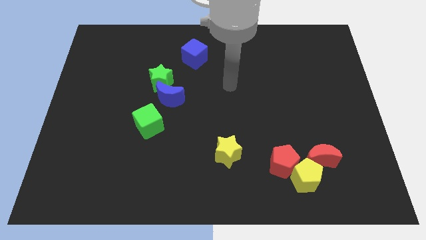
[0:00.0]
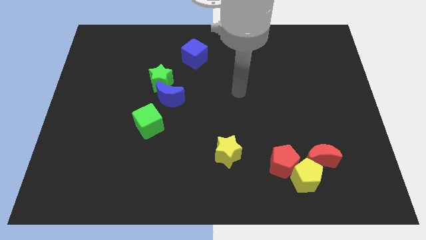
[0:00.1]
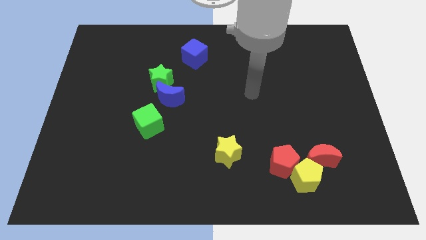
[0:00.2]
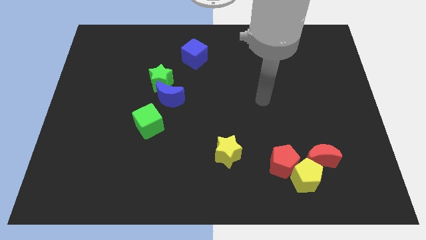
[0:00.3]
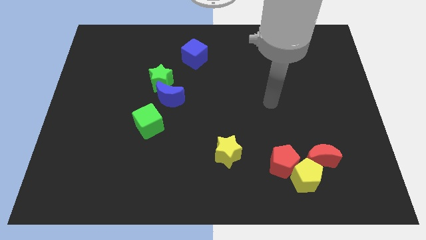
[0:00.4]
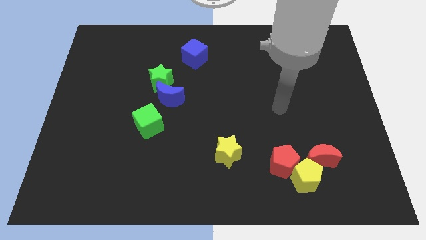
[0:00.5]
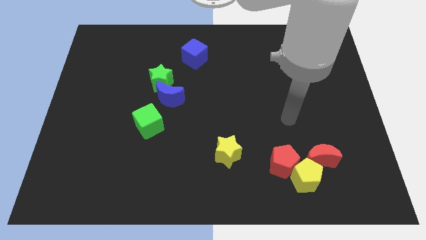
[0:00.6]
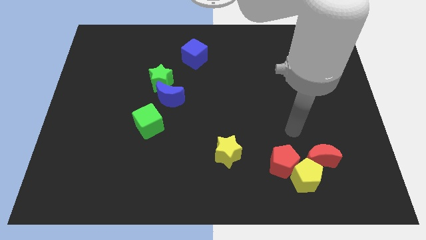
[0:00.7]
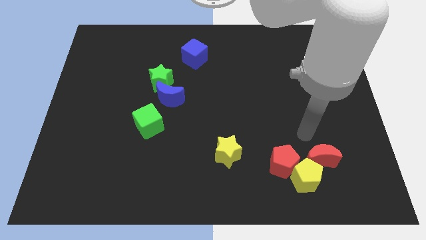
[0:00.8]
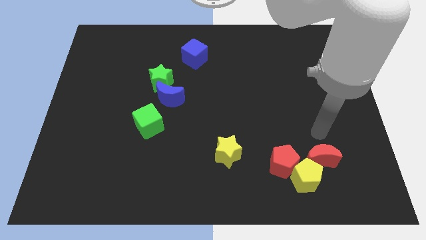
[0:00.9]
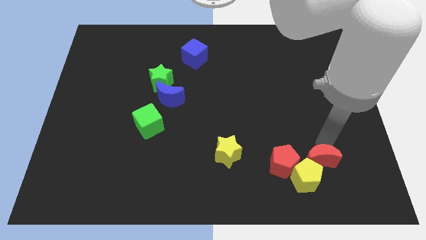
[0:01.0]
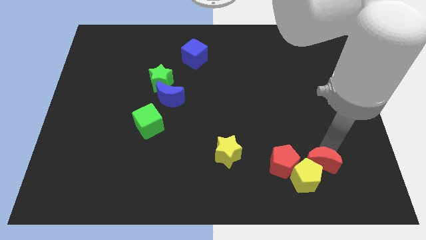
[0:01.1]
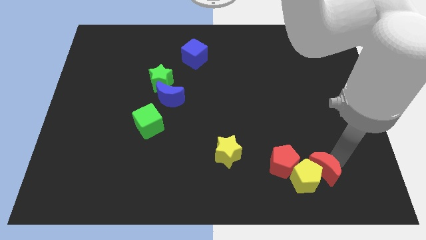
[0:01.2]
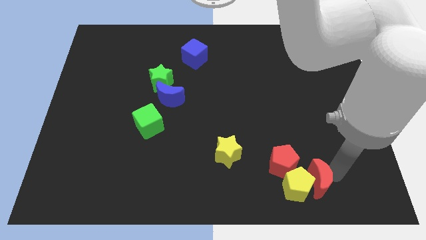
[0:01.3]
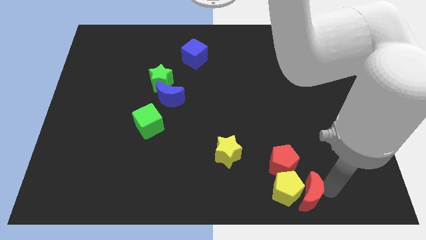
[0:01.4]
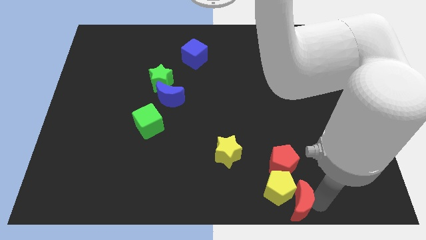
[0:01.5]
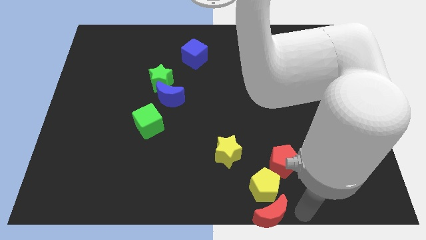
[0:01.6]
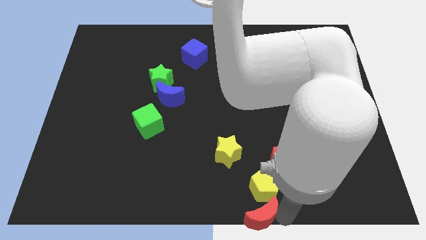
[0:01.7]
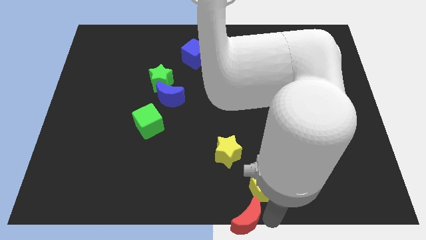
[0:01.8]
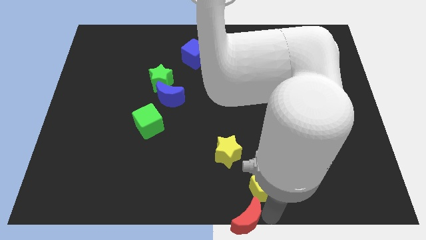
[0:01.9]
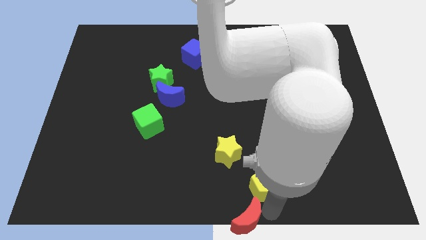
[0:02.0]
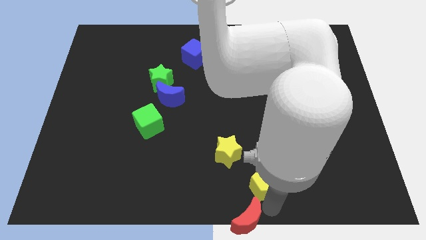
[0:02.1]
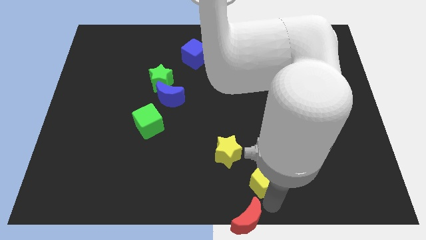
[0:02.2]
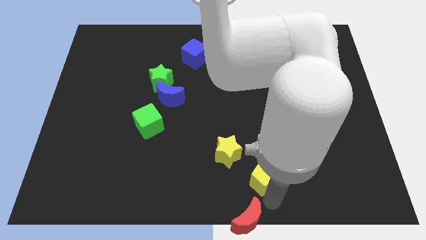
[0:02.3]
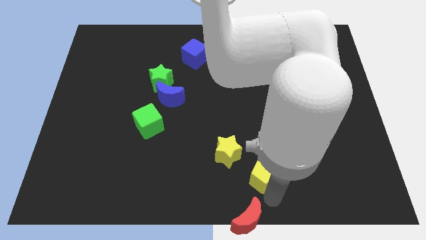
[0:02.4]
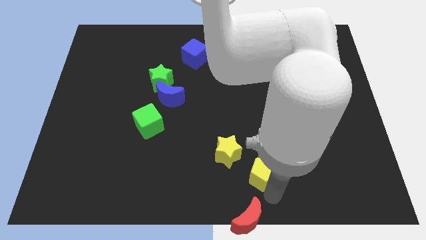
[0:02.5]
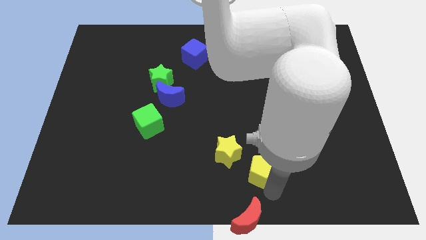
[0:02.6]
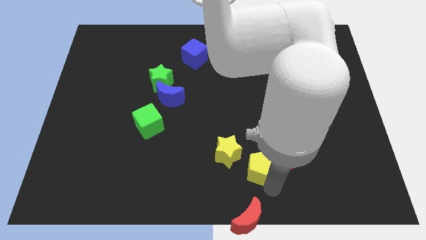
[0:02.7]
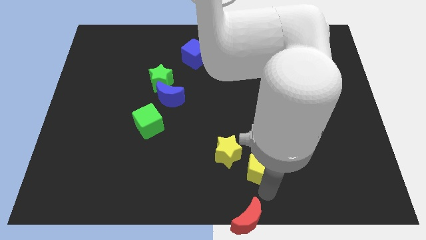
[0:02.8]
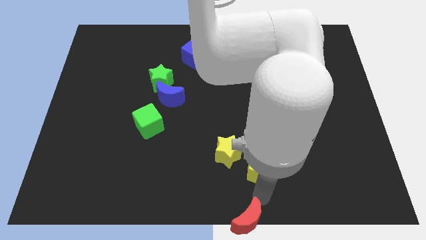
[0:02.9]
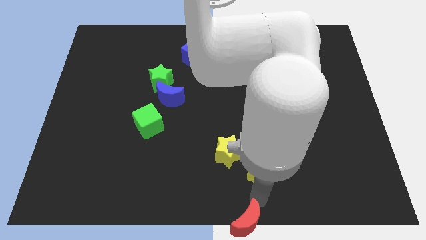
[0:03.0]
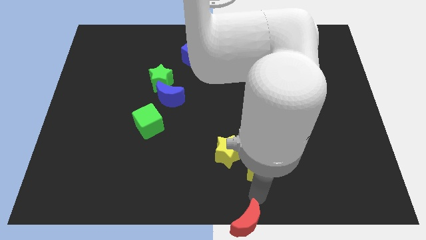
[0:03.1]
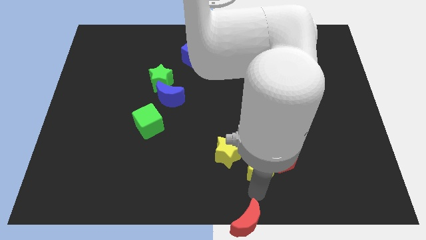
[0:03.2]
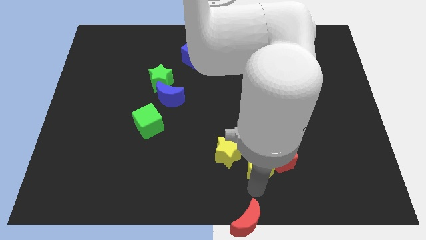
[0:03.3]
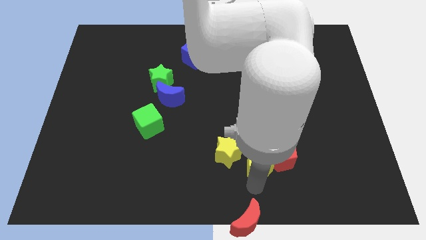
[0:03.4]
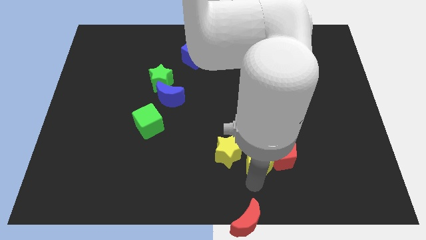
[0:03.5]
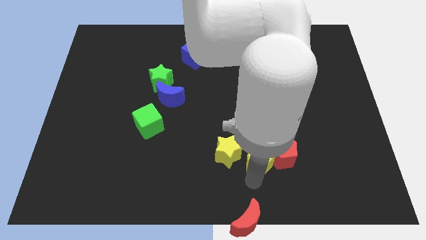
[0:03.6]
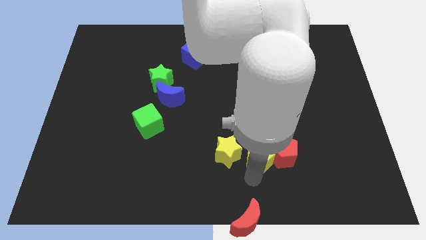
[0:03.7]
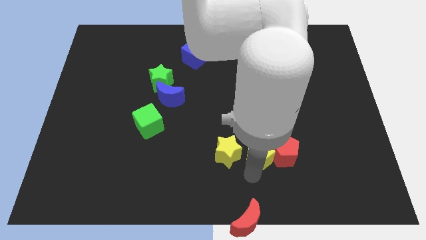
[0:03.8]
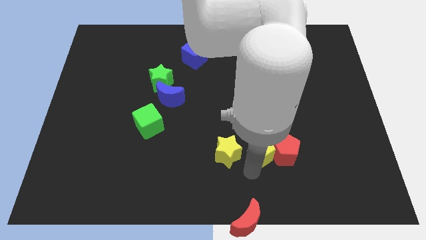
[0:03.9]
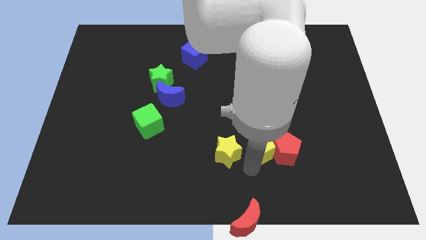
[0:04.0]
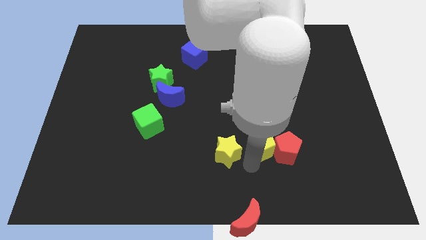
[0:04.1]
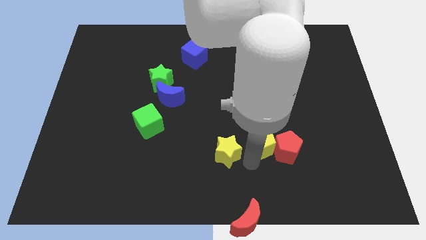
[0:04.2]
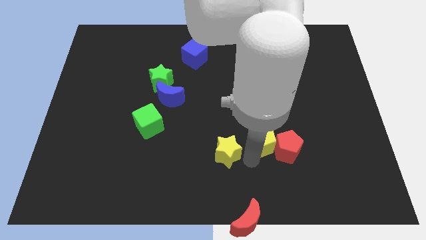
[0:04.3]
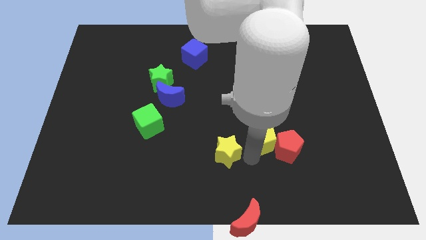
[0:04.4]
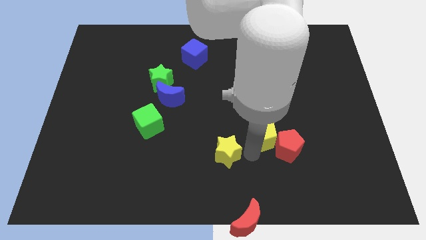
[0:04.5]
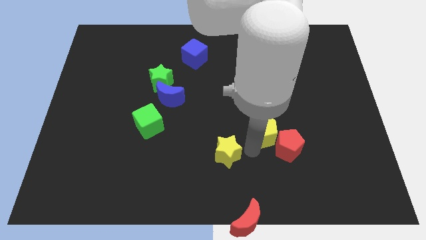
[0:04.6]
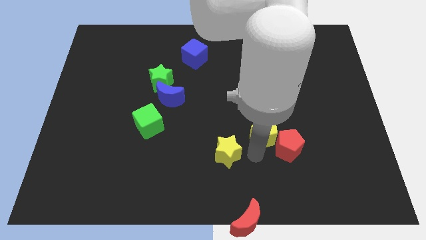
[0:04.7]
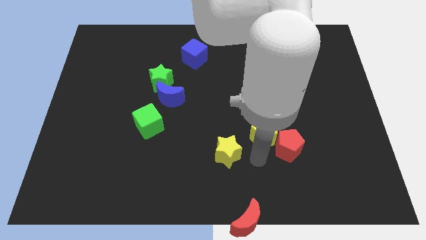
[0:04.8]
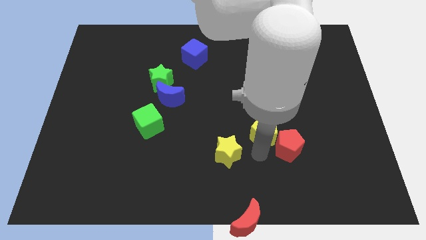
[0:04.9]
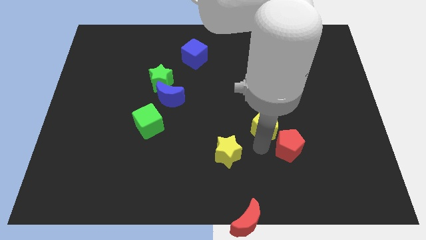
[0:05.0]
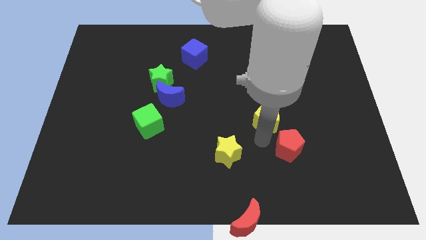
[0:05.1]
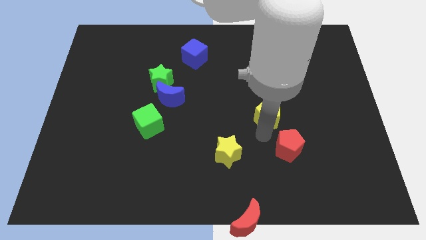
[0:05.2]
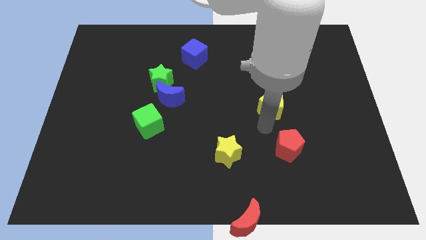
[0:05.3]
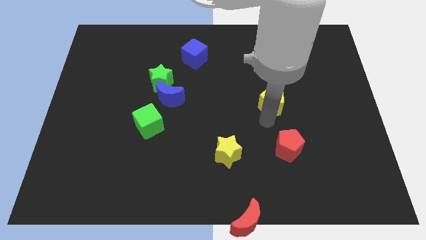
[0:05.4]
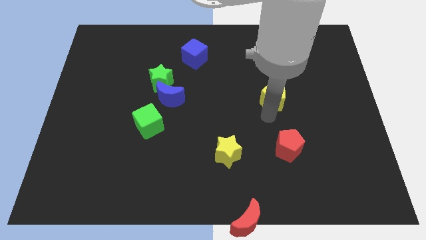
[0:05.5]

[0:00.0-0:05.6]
push the yellow pentagon up

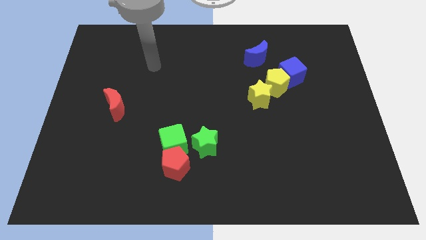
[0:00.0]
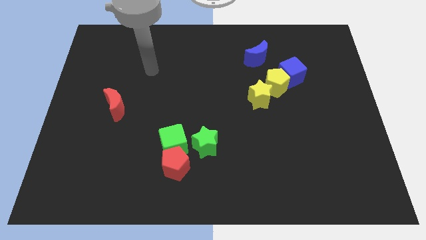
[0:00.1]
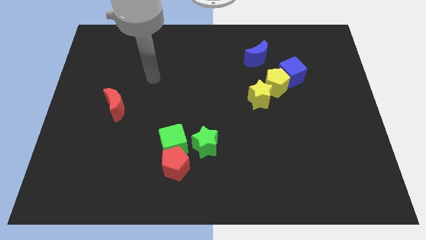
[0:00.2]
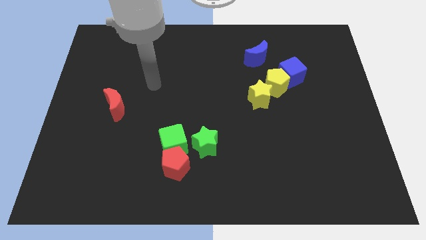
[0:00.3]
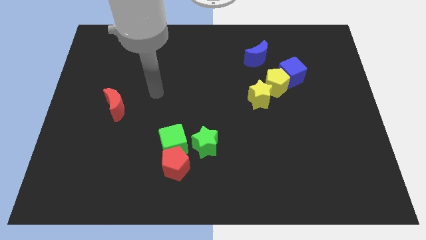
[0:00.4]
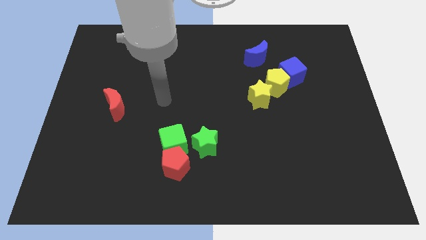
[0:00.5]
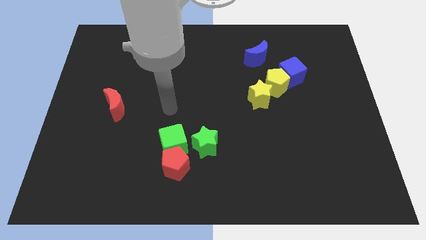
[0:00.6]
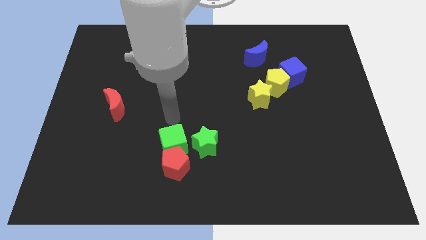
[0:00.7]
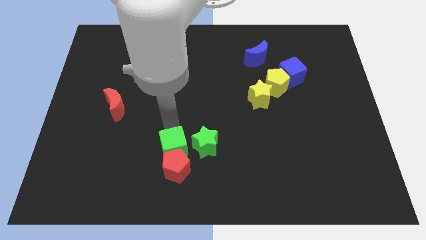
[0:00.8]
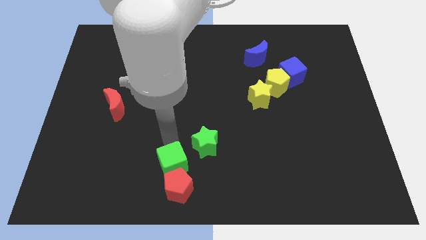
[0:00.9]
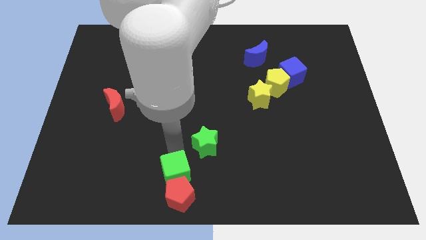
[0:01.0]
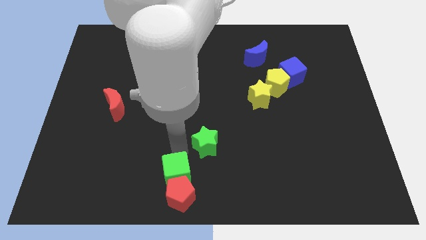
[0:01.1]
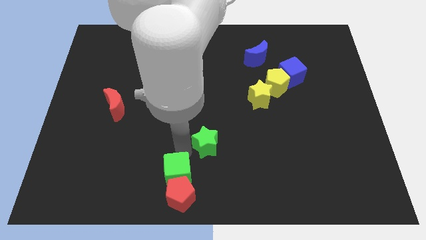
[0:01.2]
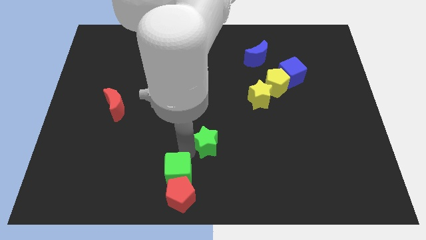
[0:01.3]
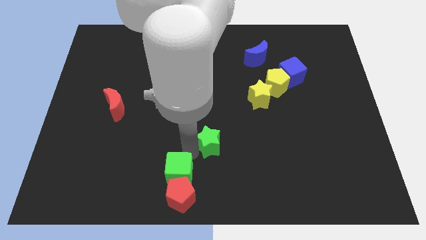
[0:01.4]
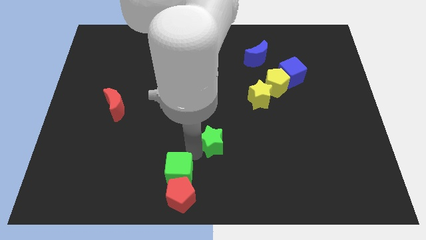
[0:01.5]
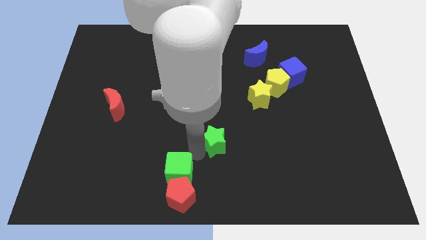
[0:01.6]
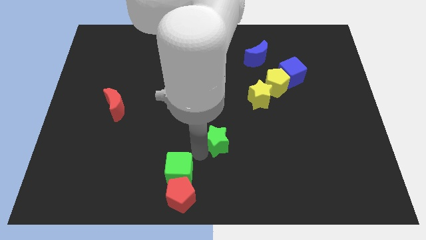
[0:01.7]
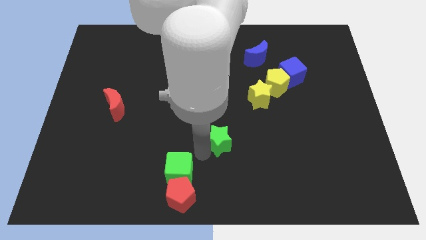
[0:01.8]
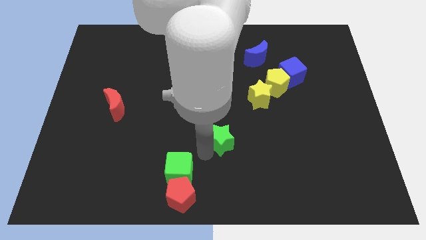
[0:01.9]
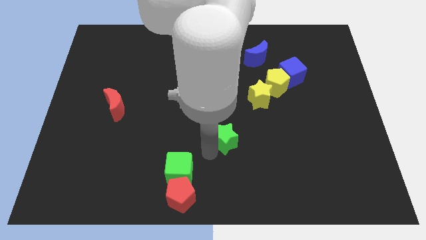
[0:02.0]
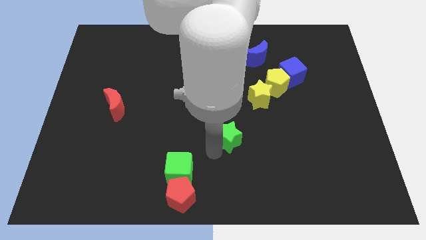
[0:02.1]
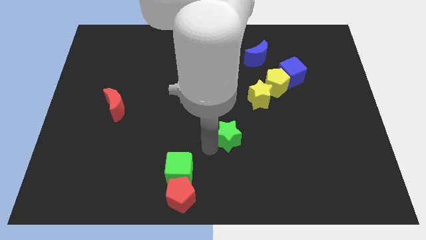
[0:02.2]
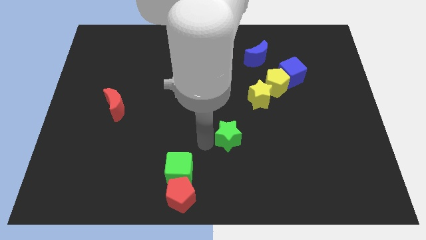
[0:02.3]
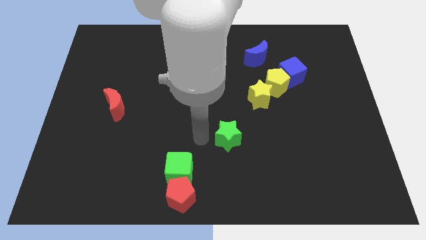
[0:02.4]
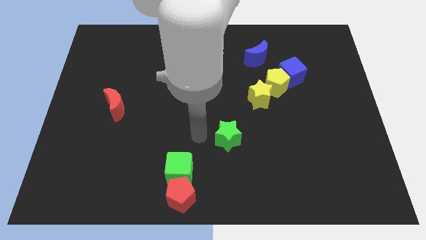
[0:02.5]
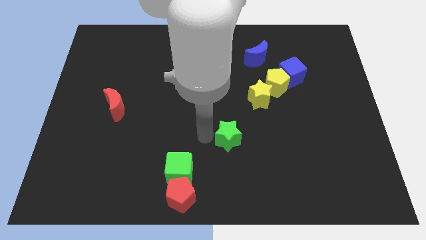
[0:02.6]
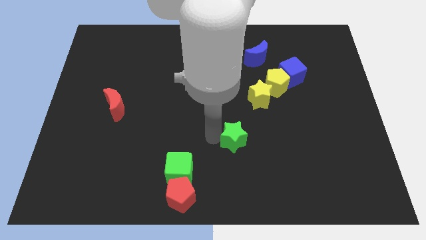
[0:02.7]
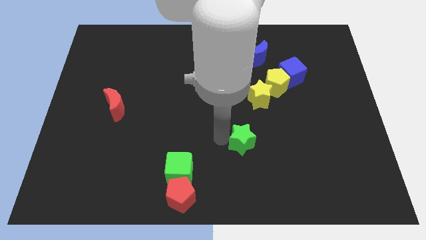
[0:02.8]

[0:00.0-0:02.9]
slightly move the green star to the right
